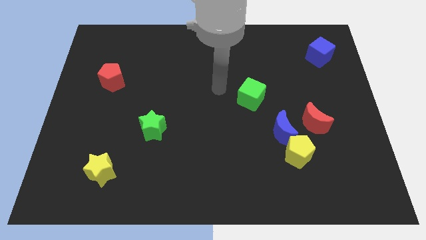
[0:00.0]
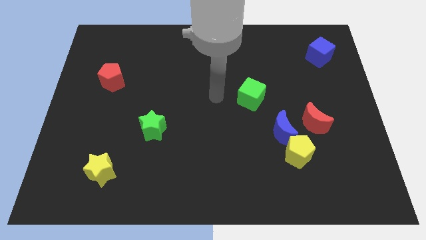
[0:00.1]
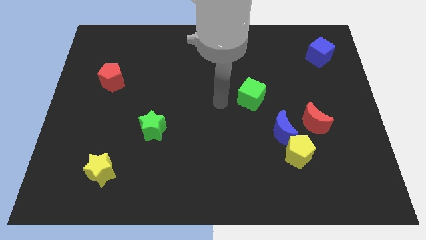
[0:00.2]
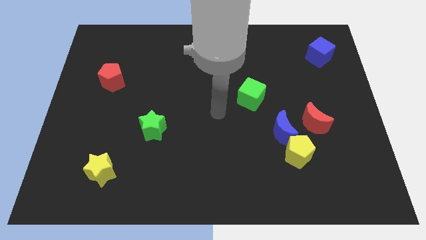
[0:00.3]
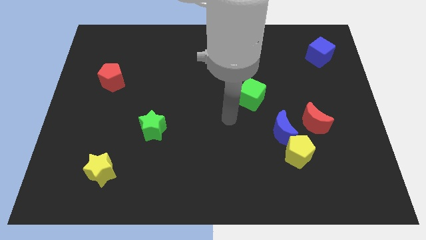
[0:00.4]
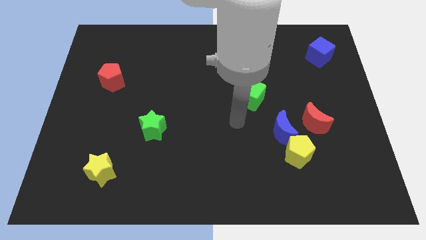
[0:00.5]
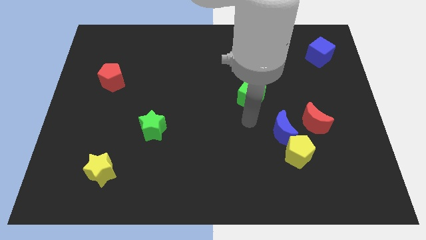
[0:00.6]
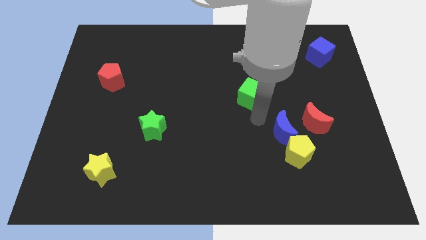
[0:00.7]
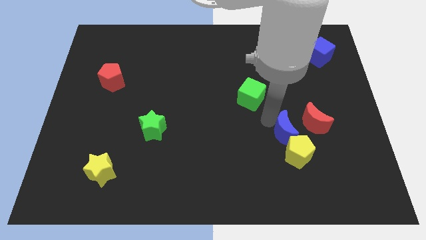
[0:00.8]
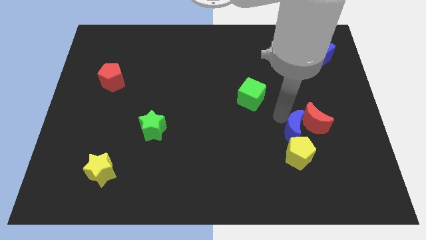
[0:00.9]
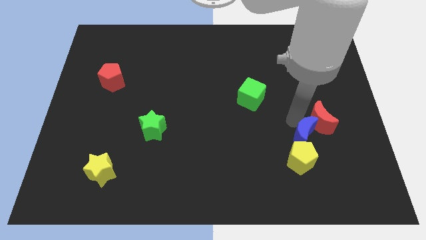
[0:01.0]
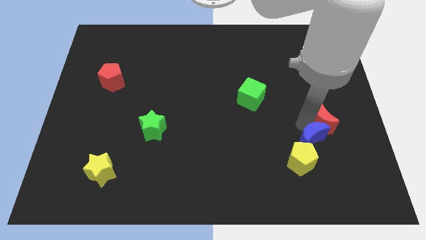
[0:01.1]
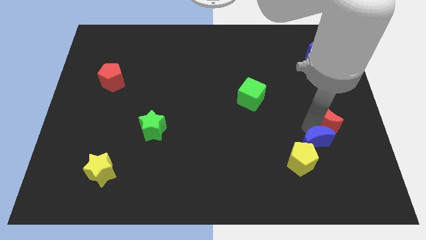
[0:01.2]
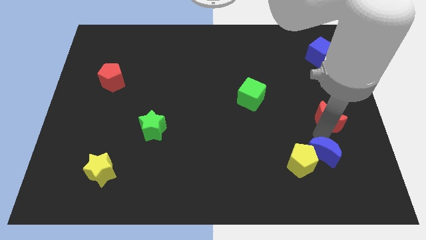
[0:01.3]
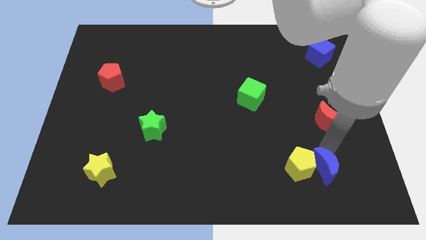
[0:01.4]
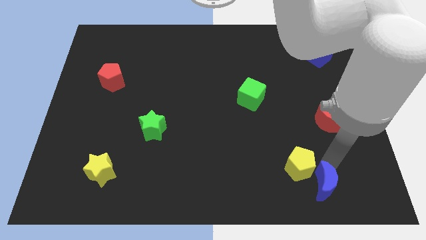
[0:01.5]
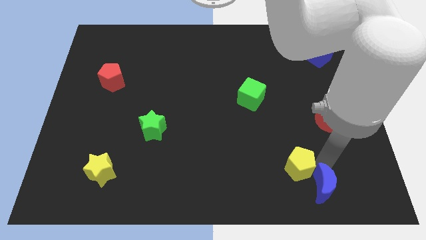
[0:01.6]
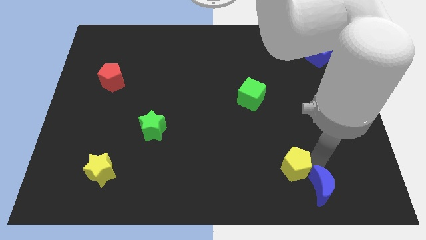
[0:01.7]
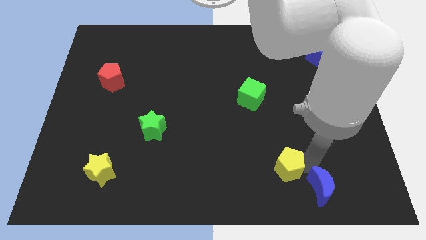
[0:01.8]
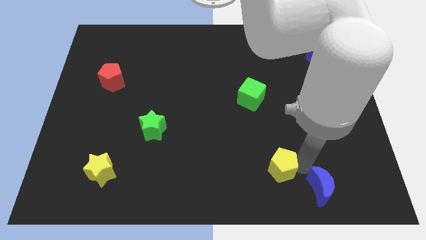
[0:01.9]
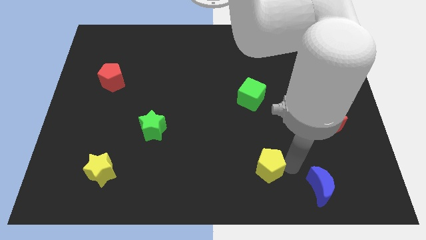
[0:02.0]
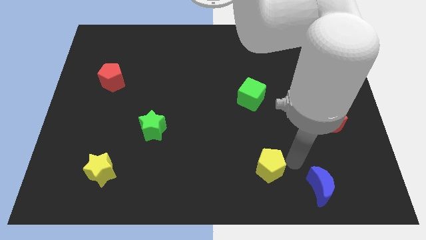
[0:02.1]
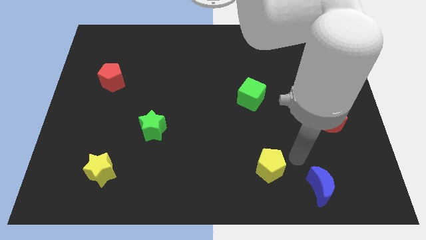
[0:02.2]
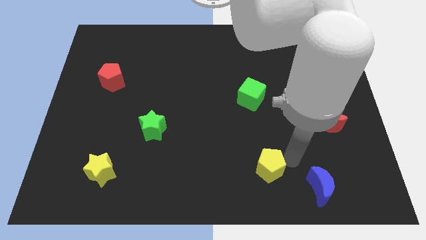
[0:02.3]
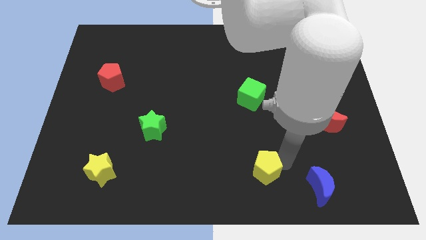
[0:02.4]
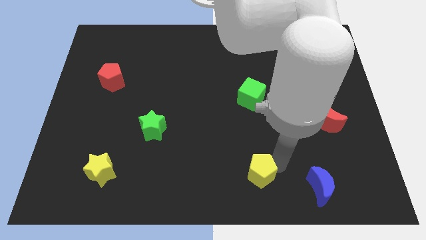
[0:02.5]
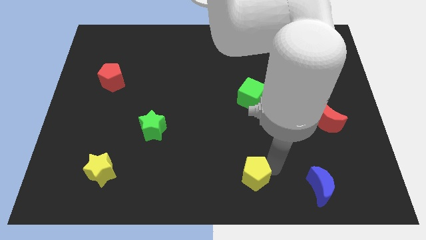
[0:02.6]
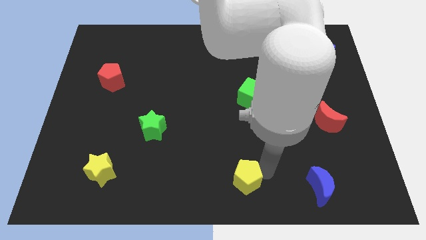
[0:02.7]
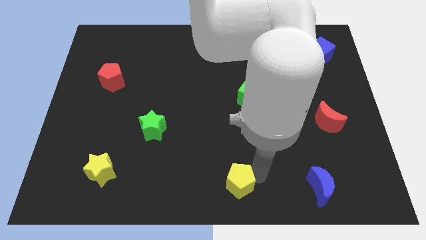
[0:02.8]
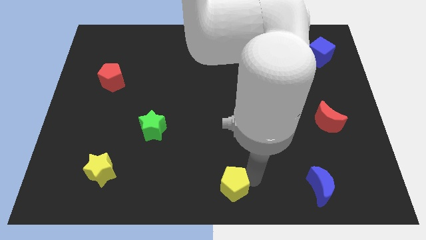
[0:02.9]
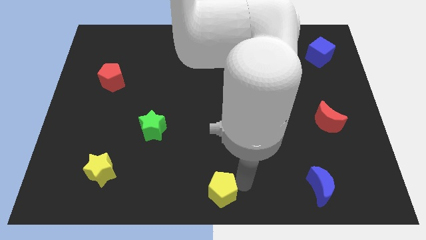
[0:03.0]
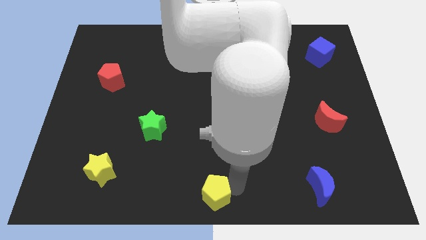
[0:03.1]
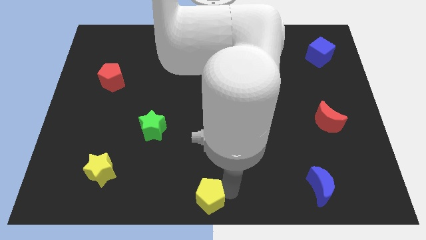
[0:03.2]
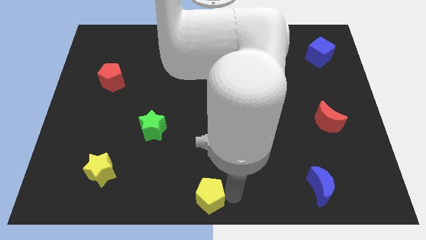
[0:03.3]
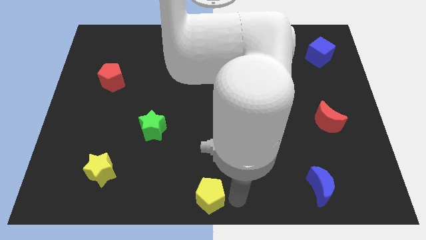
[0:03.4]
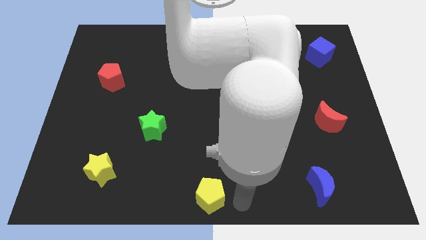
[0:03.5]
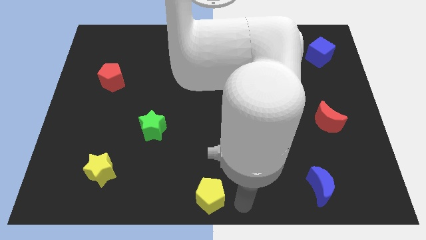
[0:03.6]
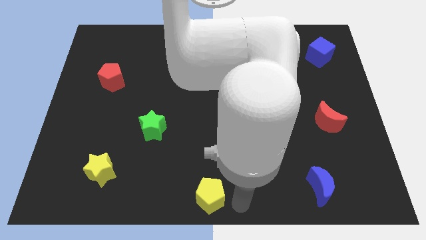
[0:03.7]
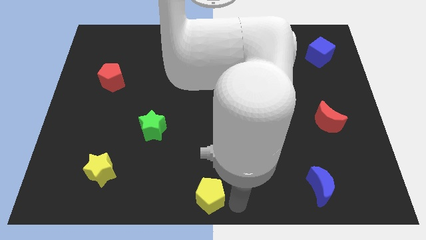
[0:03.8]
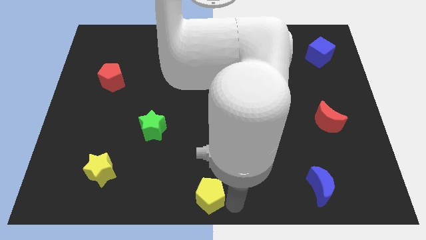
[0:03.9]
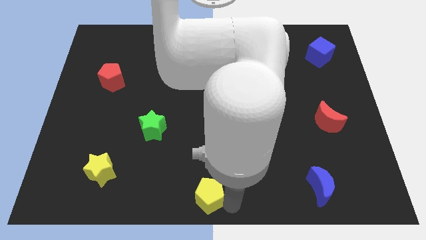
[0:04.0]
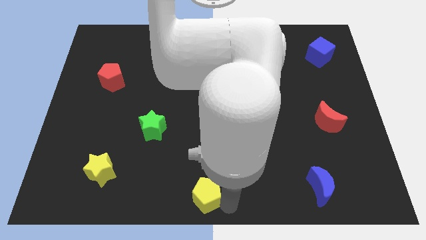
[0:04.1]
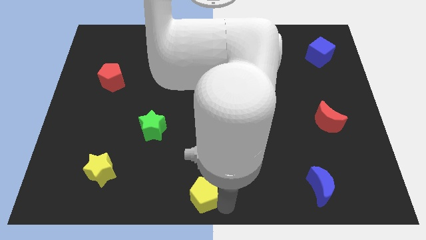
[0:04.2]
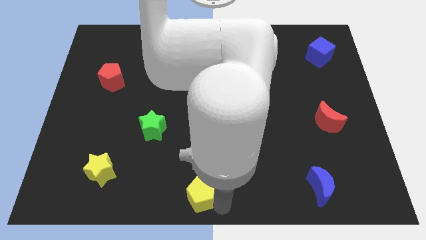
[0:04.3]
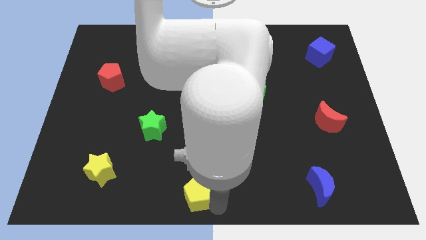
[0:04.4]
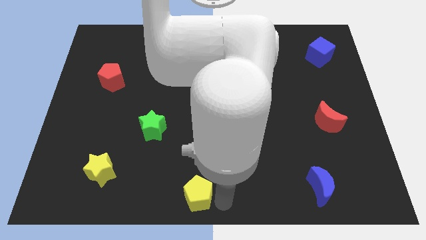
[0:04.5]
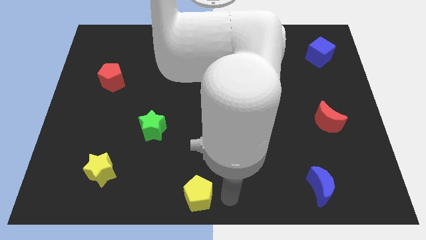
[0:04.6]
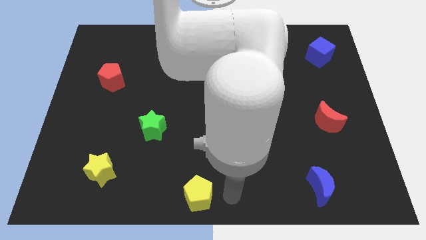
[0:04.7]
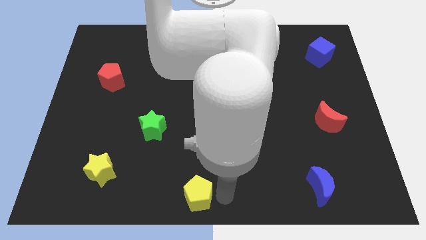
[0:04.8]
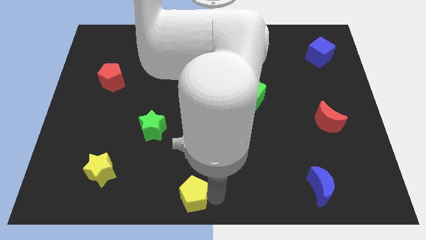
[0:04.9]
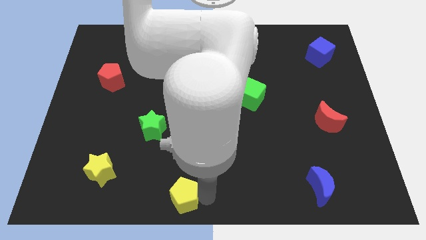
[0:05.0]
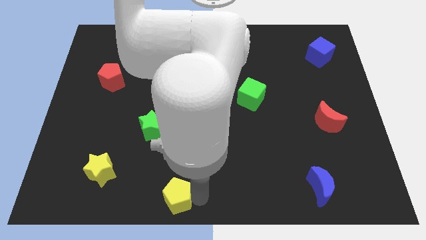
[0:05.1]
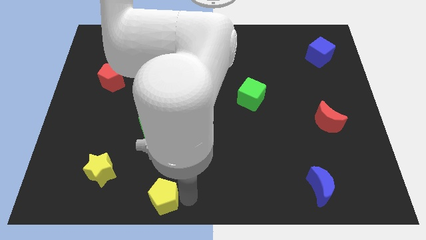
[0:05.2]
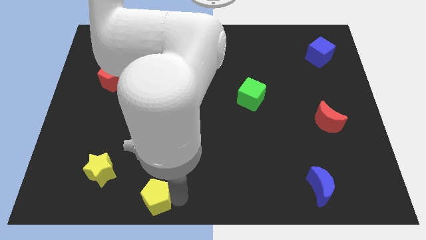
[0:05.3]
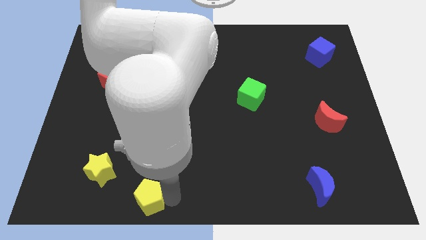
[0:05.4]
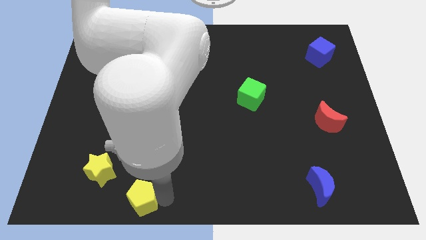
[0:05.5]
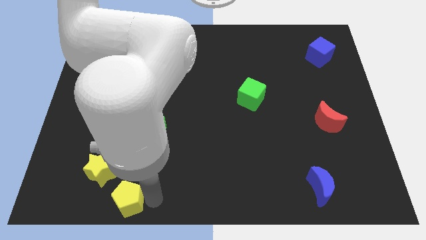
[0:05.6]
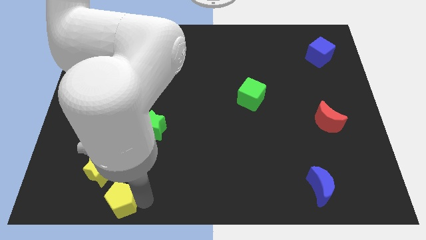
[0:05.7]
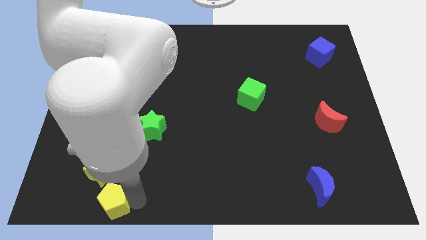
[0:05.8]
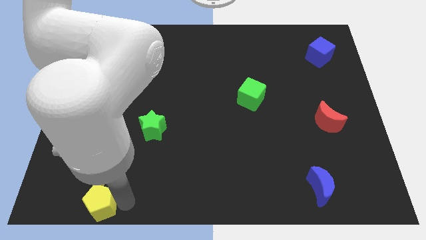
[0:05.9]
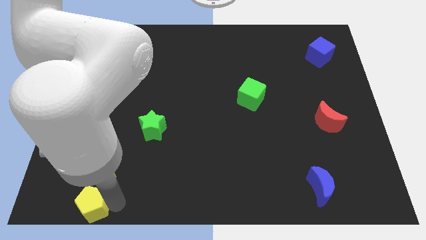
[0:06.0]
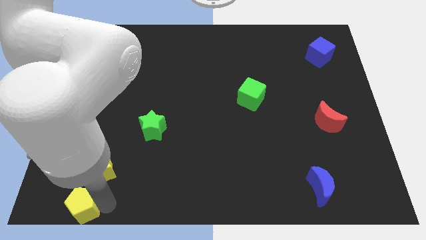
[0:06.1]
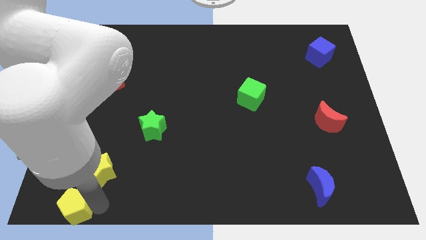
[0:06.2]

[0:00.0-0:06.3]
push the yellow pentagon to the bottom left of the board

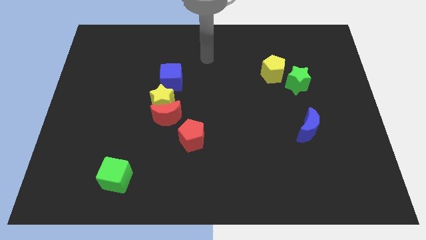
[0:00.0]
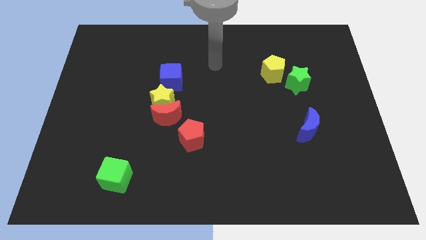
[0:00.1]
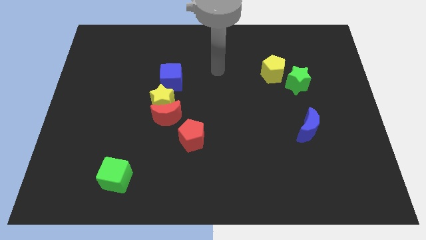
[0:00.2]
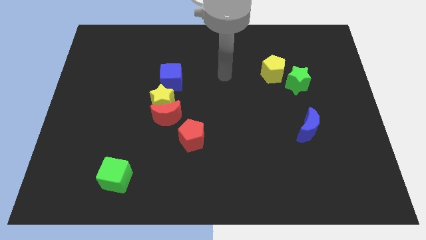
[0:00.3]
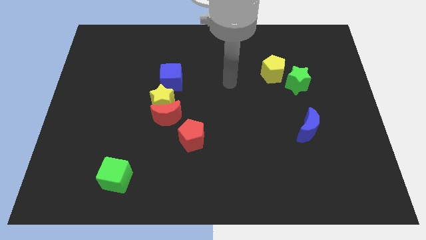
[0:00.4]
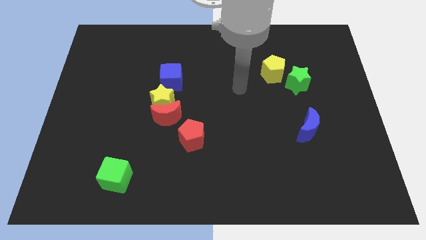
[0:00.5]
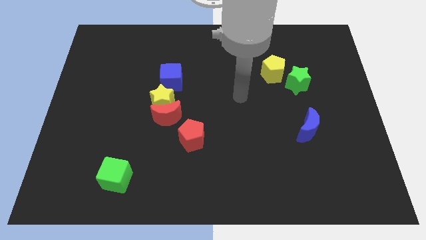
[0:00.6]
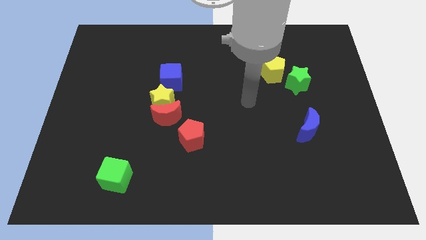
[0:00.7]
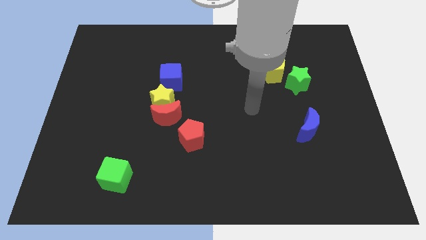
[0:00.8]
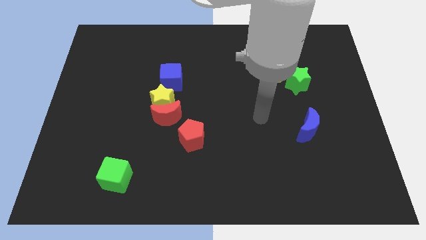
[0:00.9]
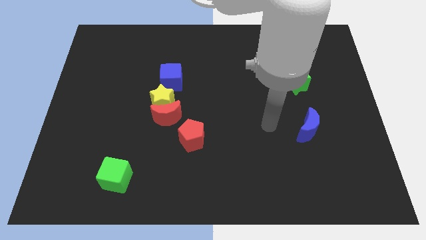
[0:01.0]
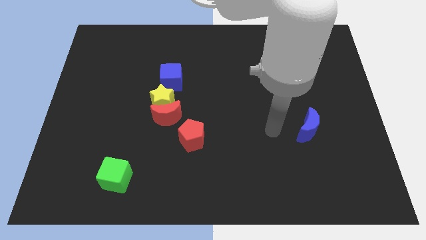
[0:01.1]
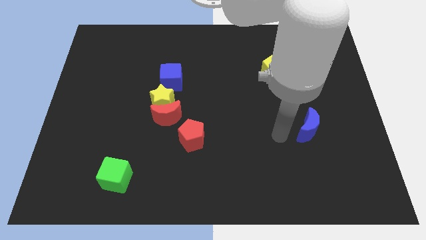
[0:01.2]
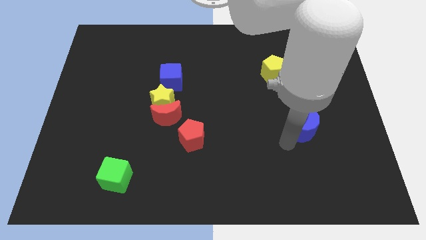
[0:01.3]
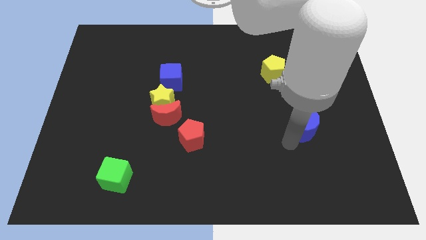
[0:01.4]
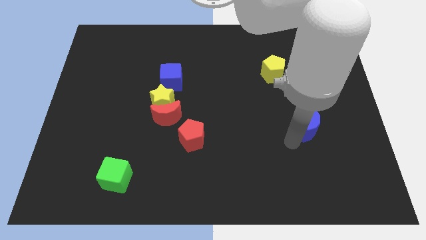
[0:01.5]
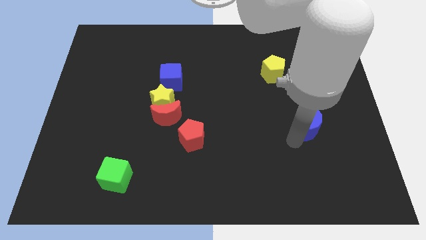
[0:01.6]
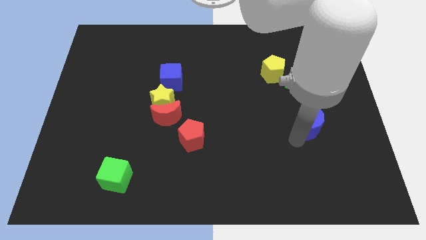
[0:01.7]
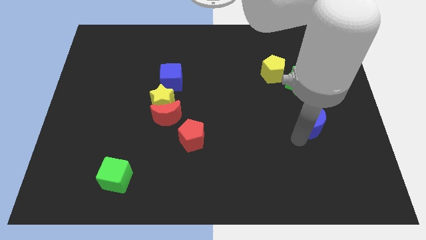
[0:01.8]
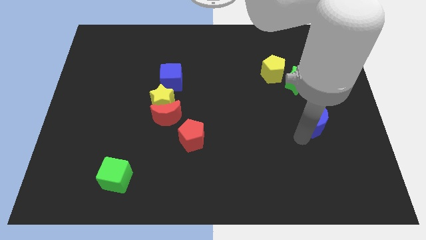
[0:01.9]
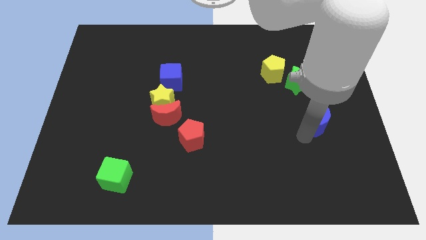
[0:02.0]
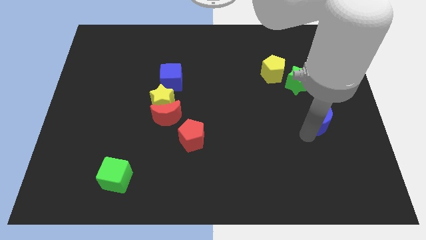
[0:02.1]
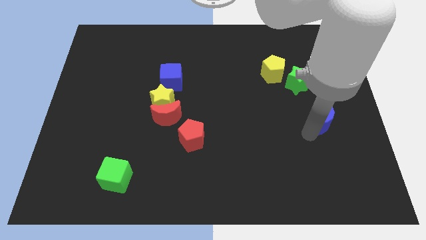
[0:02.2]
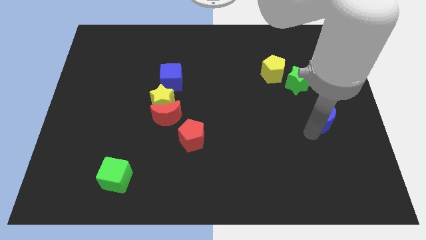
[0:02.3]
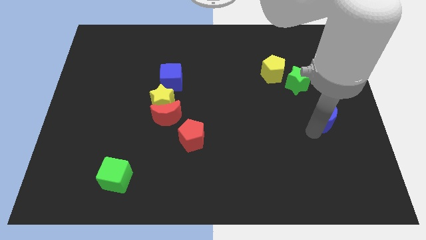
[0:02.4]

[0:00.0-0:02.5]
move the blue moon to the center right
